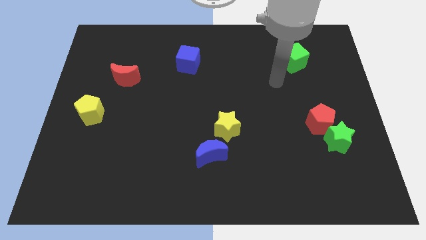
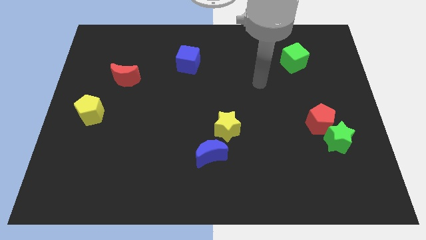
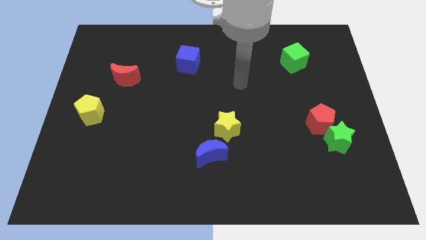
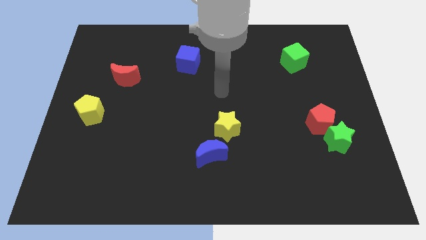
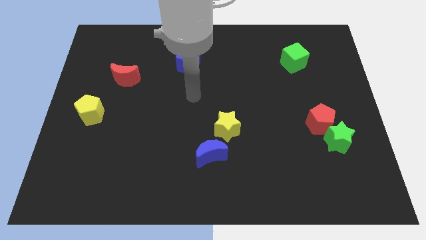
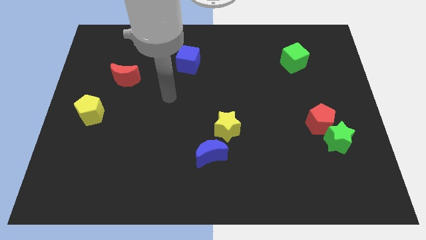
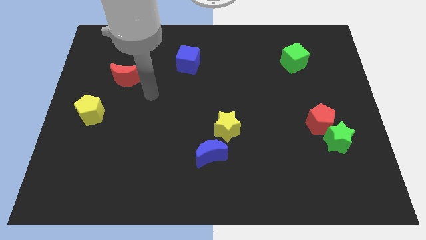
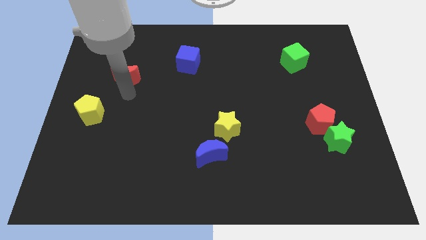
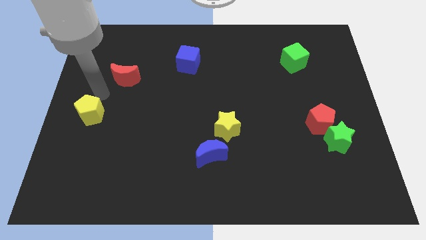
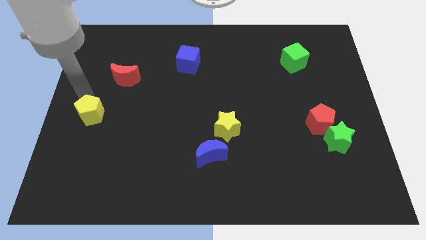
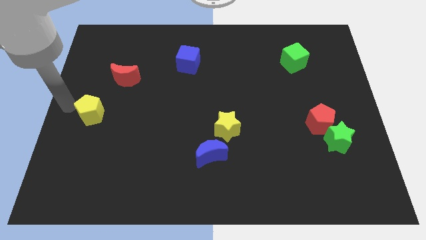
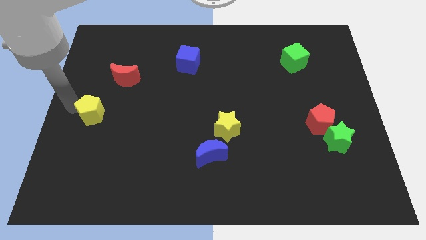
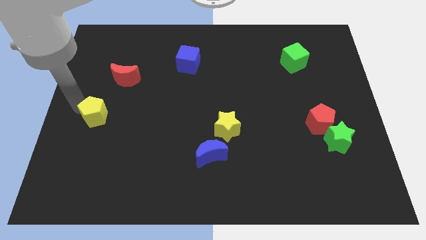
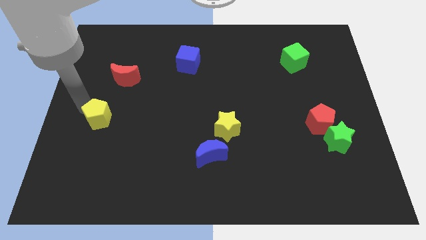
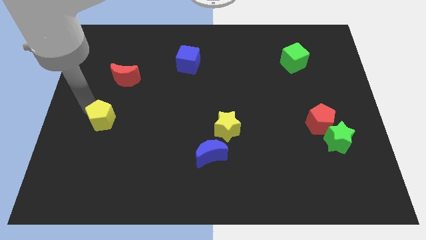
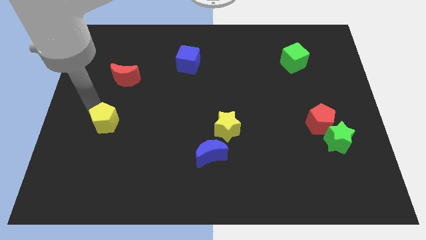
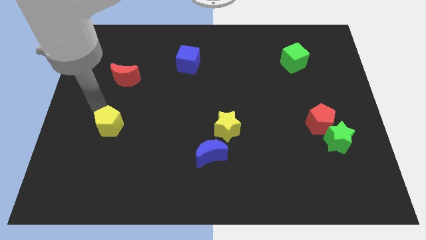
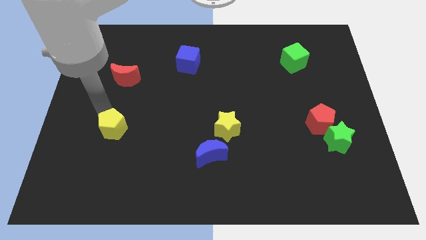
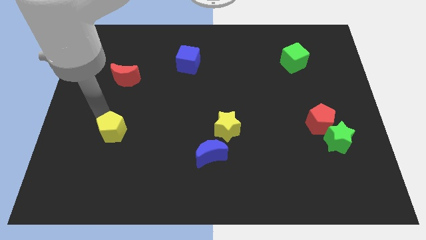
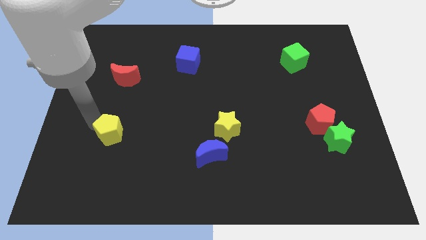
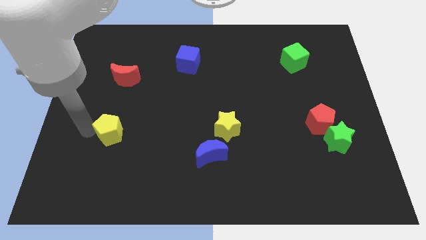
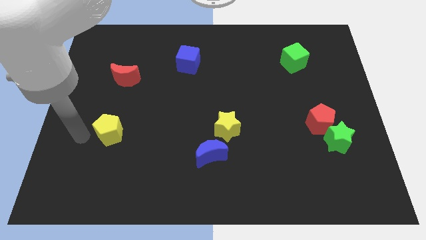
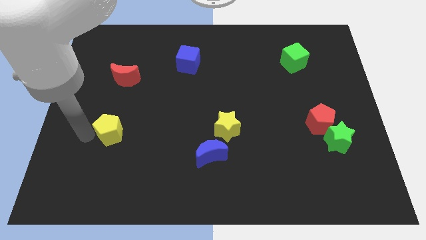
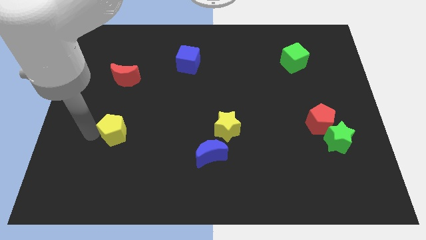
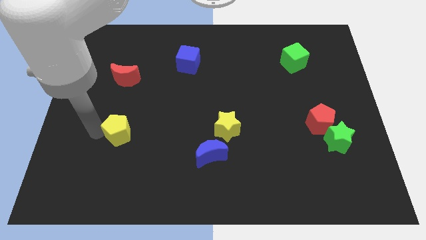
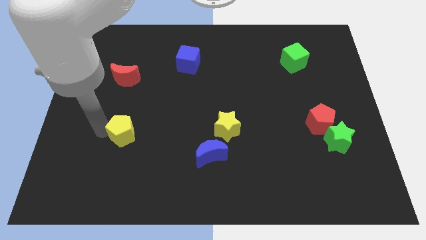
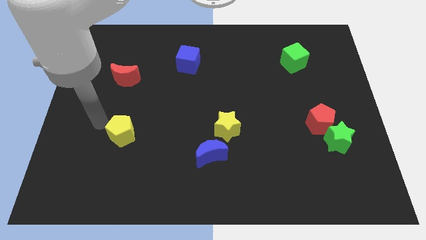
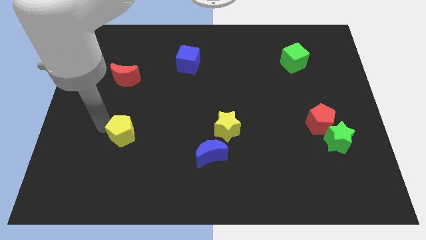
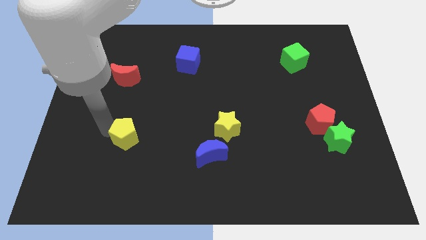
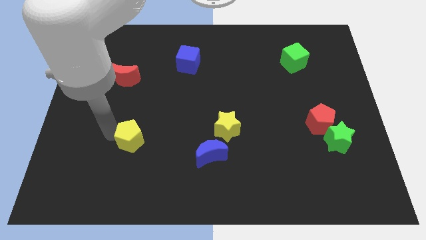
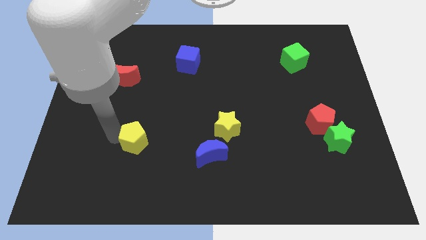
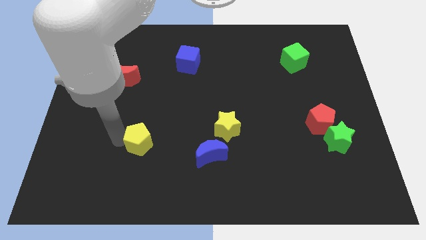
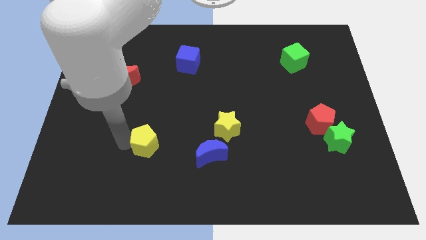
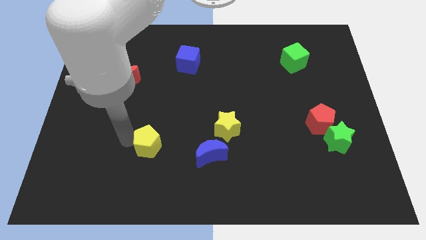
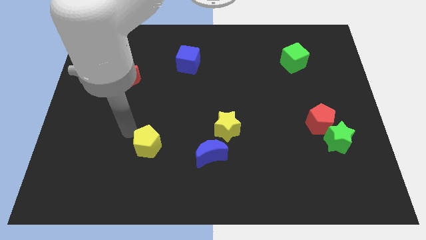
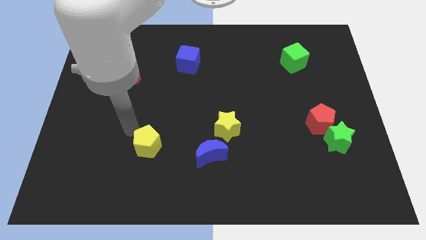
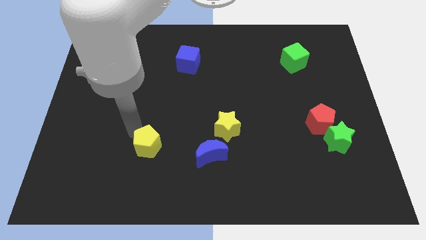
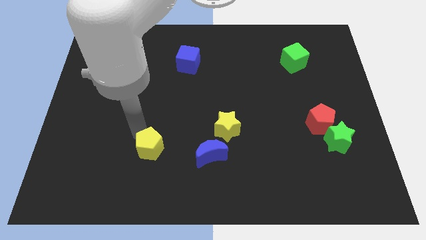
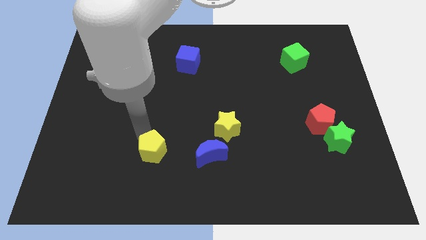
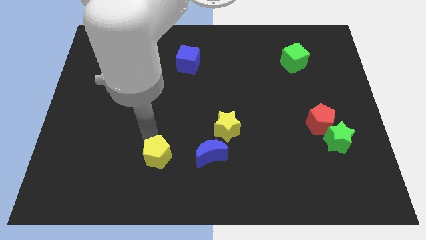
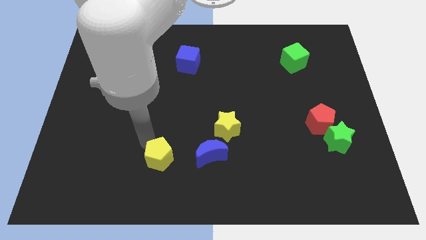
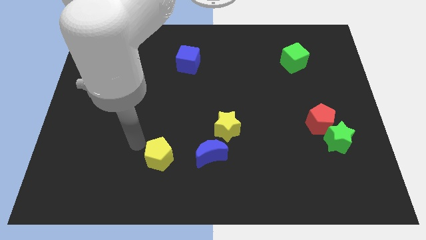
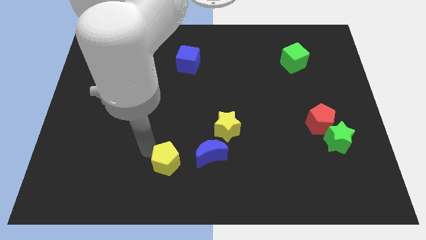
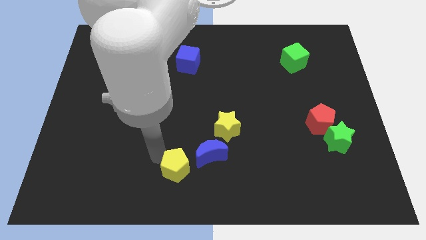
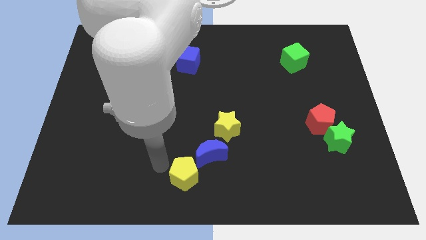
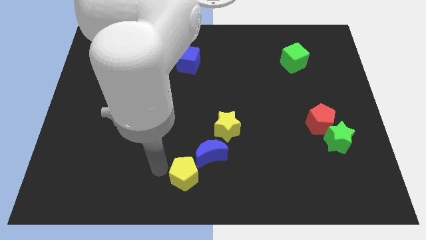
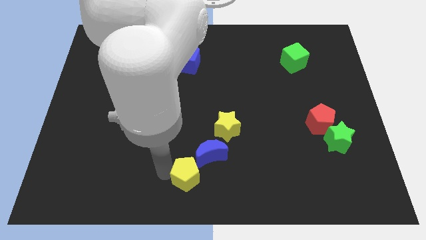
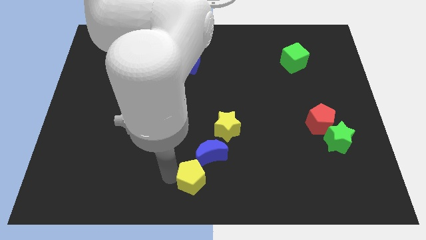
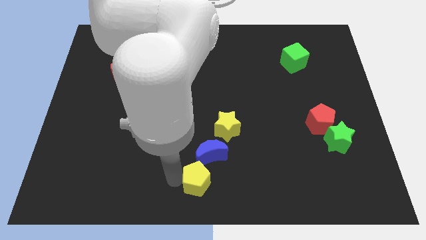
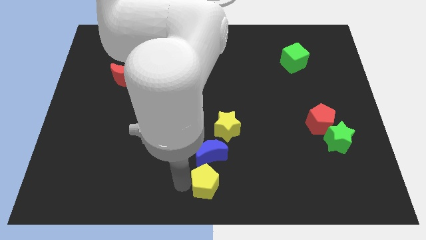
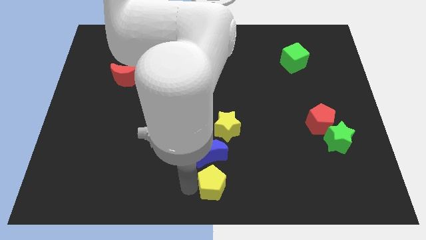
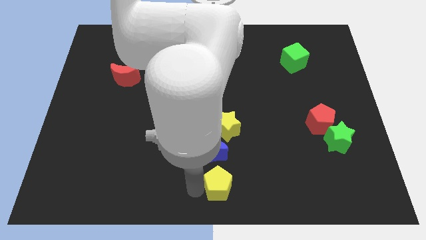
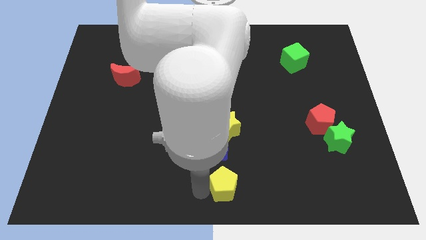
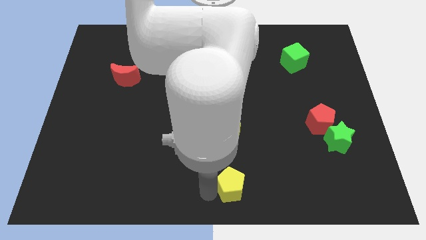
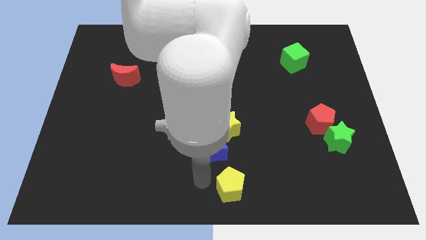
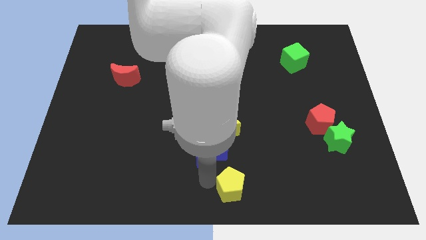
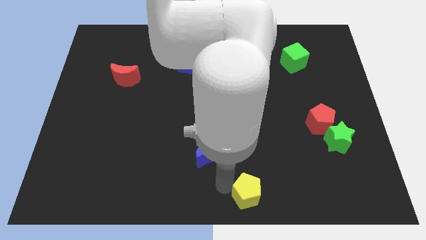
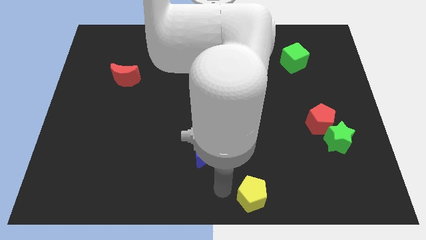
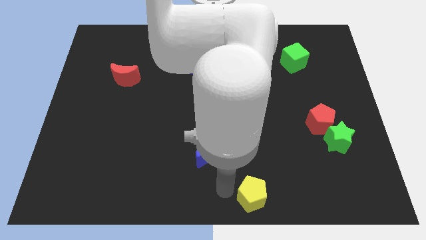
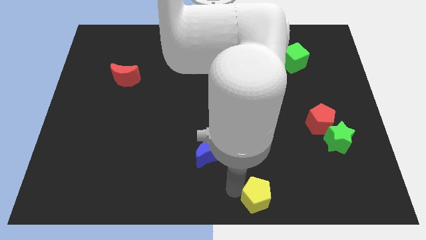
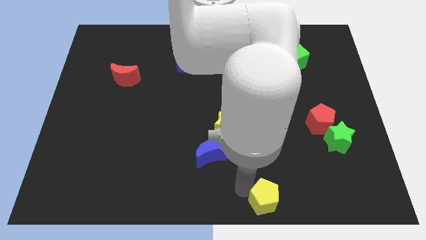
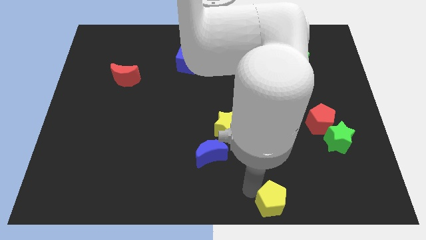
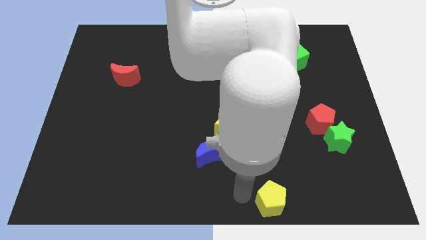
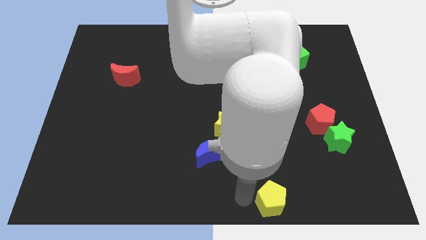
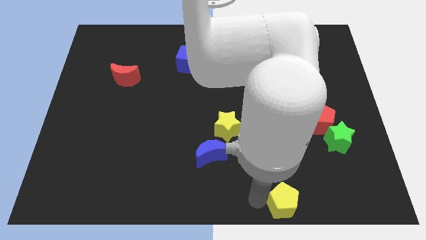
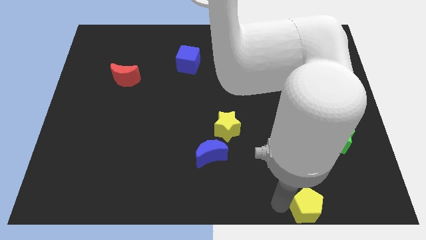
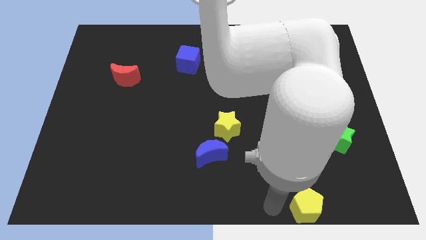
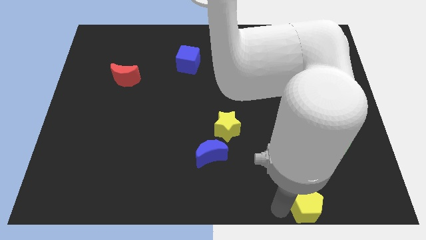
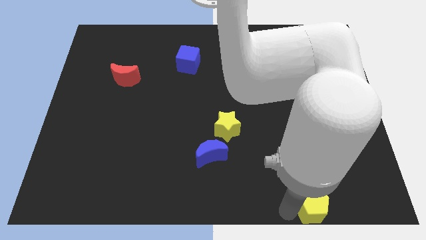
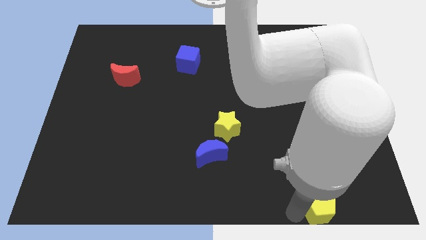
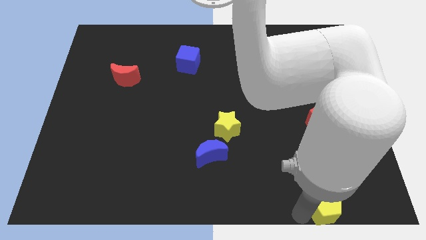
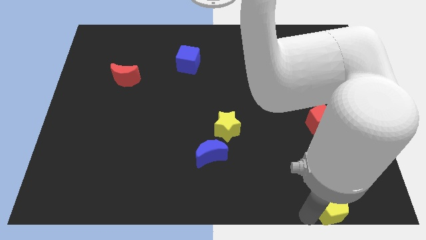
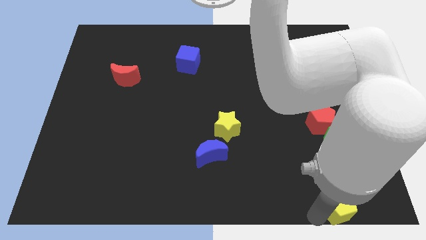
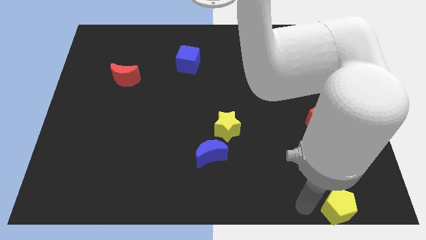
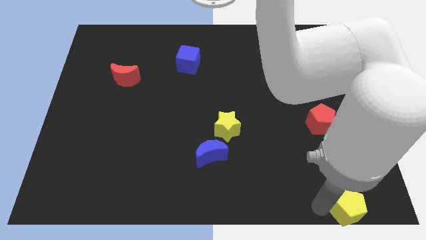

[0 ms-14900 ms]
move the yellow pentagon to the lower right corner
